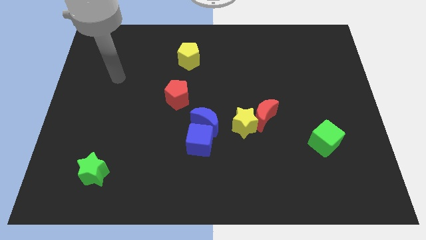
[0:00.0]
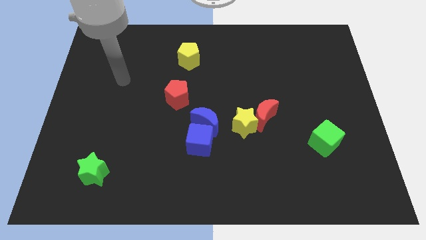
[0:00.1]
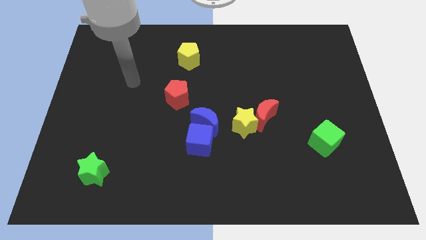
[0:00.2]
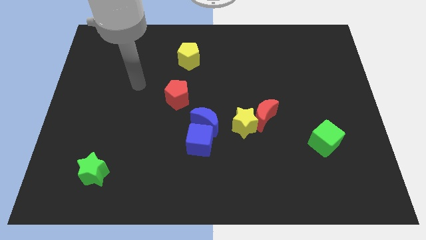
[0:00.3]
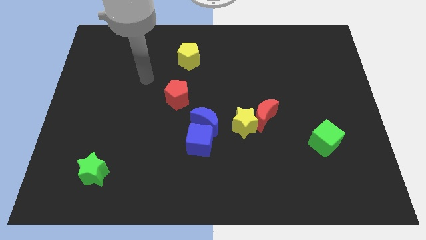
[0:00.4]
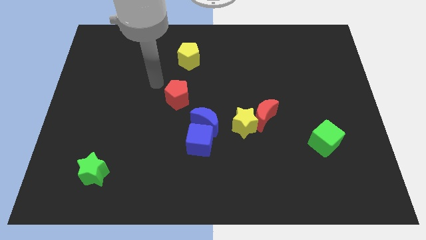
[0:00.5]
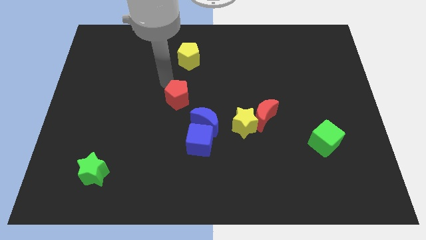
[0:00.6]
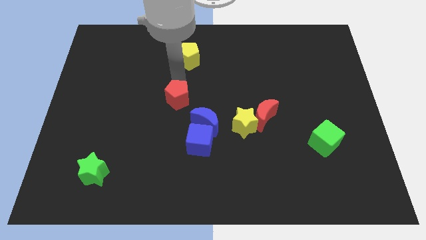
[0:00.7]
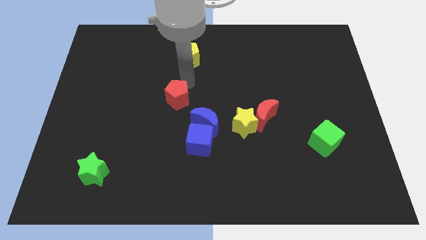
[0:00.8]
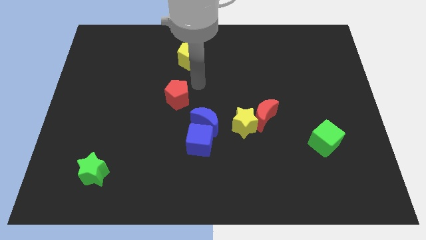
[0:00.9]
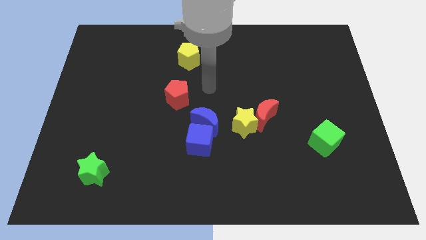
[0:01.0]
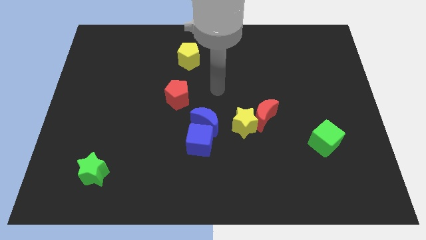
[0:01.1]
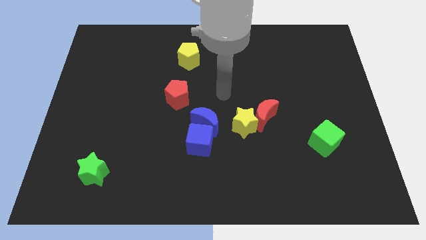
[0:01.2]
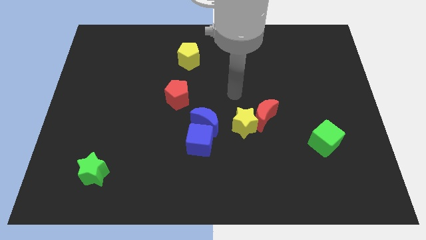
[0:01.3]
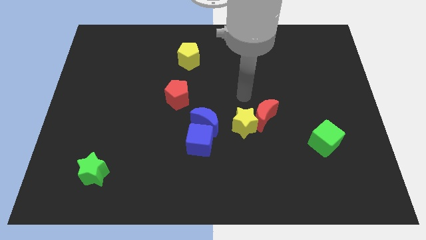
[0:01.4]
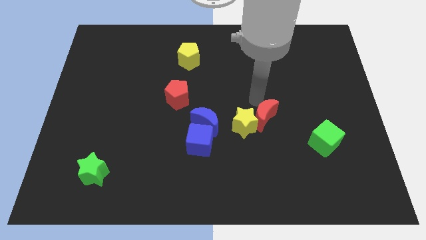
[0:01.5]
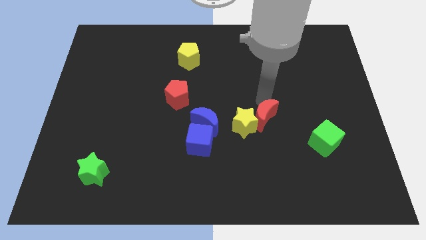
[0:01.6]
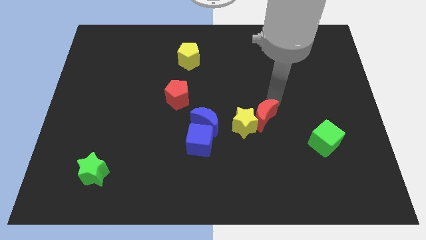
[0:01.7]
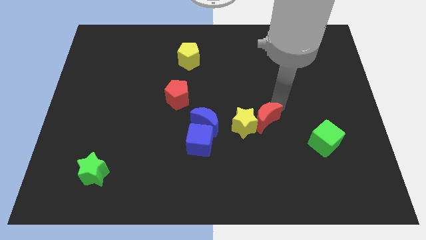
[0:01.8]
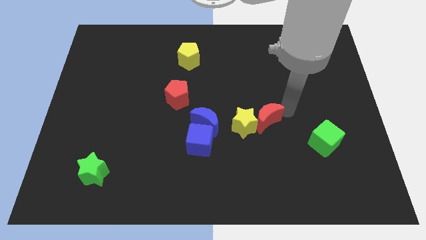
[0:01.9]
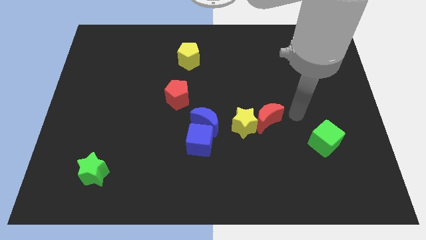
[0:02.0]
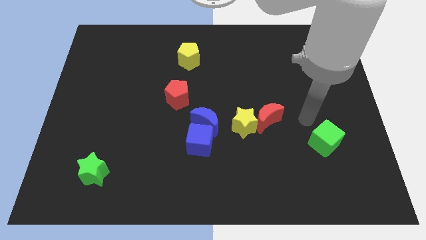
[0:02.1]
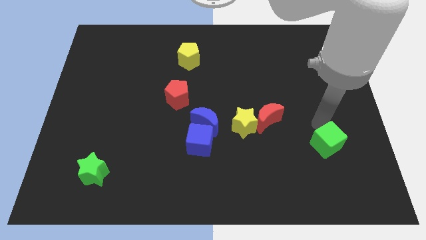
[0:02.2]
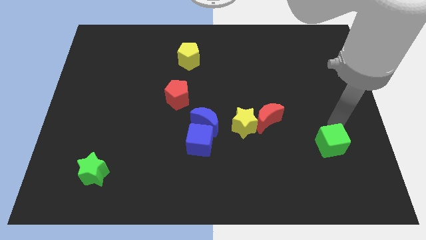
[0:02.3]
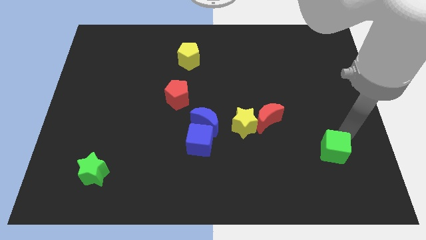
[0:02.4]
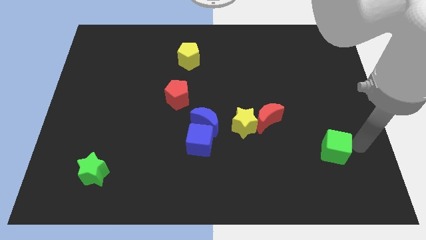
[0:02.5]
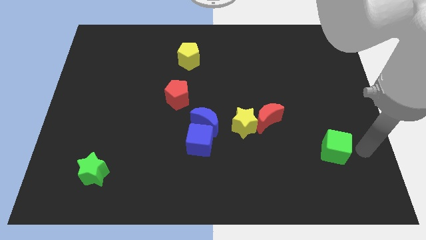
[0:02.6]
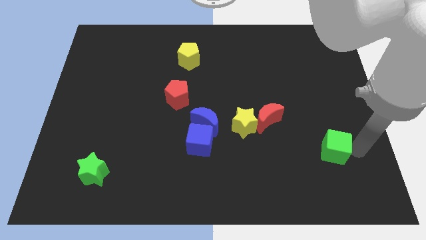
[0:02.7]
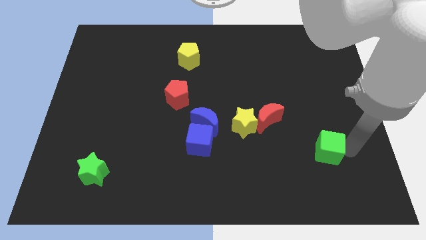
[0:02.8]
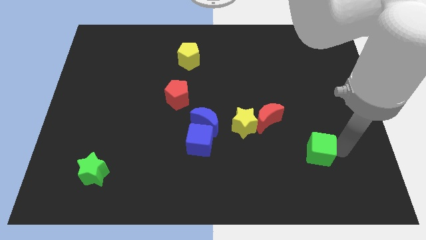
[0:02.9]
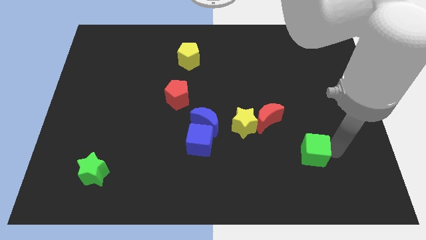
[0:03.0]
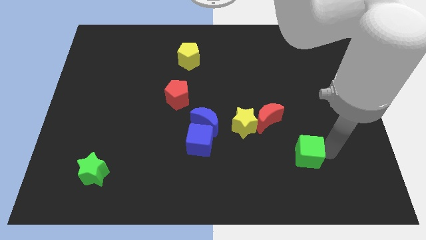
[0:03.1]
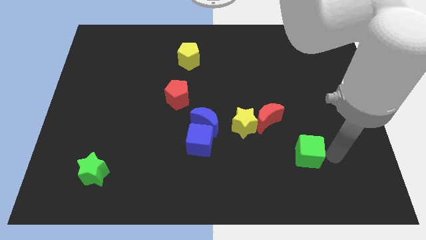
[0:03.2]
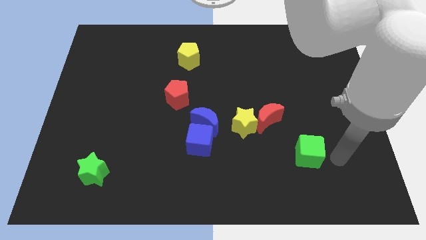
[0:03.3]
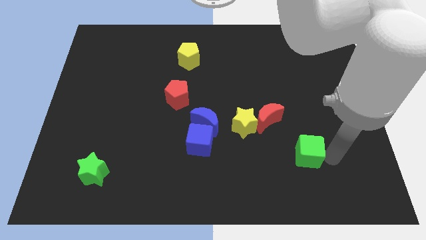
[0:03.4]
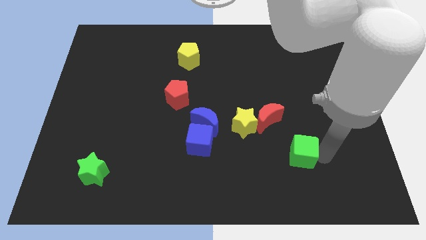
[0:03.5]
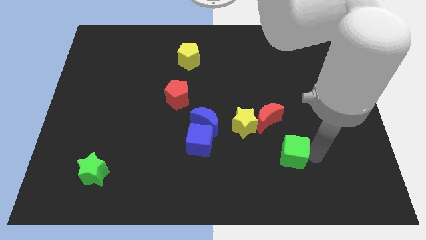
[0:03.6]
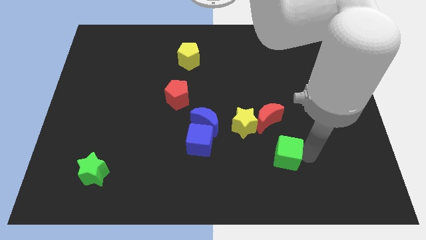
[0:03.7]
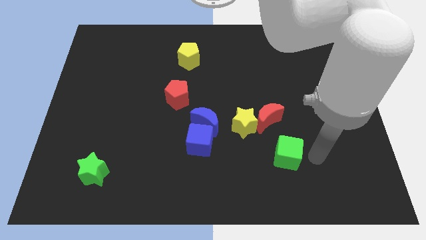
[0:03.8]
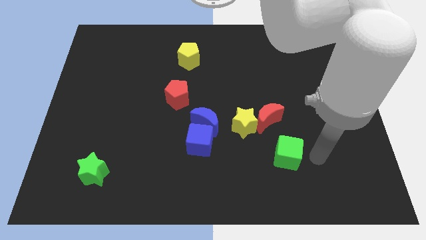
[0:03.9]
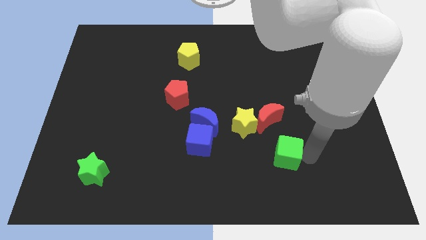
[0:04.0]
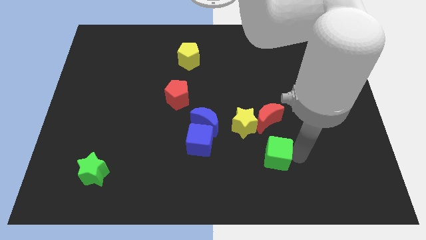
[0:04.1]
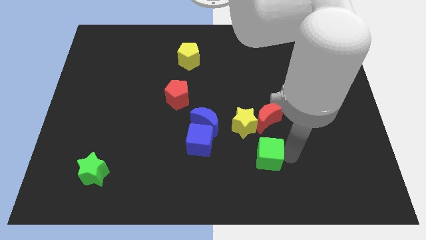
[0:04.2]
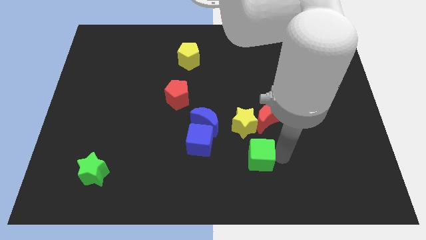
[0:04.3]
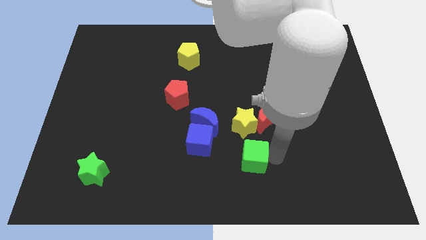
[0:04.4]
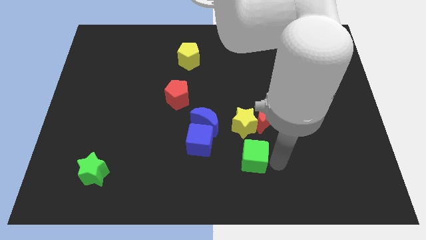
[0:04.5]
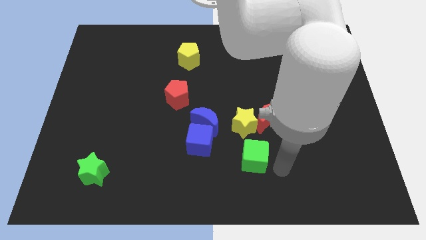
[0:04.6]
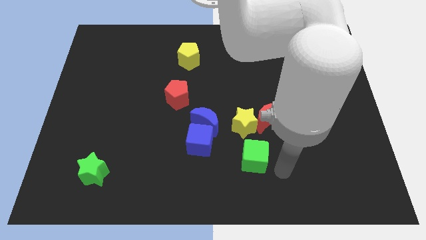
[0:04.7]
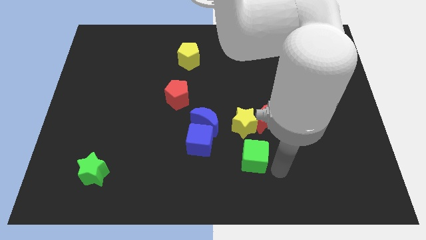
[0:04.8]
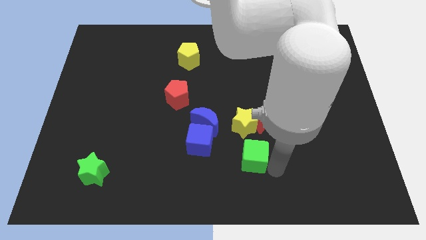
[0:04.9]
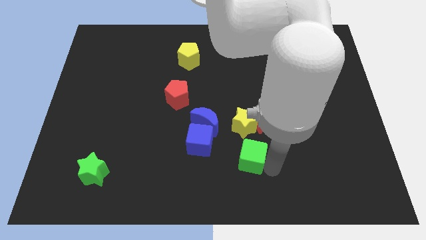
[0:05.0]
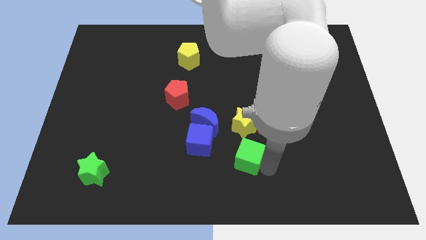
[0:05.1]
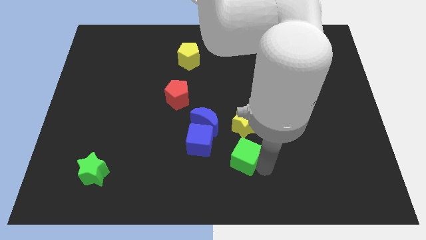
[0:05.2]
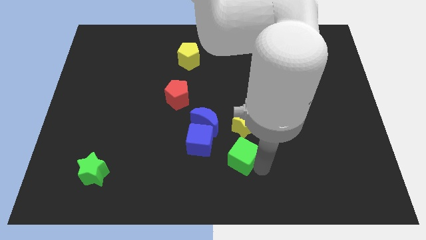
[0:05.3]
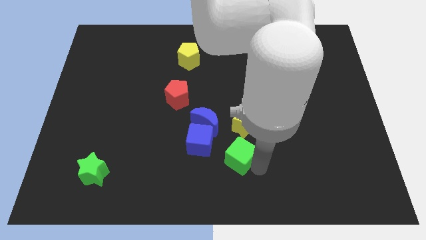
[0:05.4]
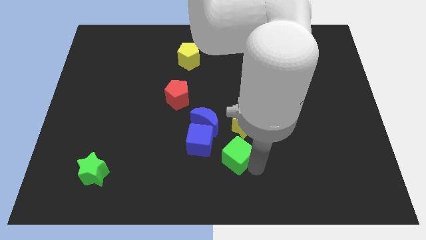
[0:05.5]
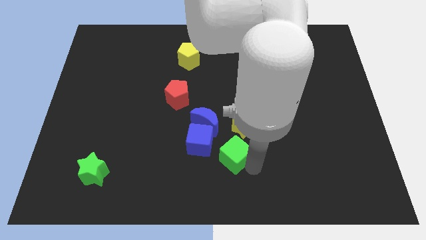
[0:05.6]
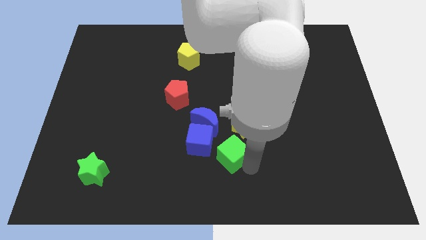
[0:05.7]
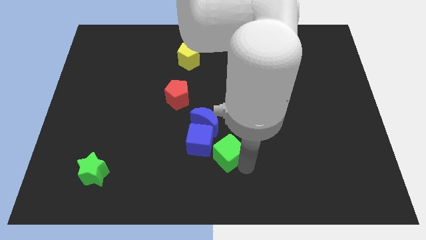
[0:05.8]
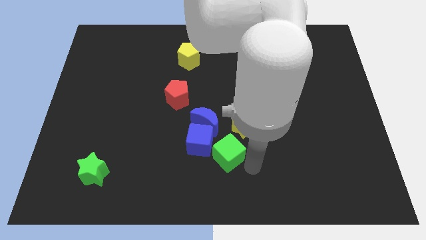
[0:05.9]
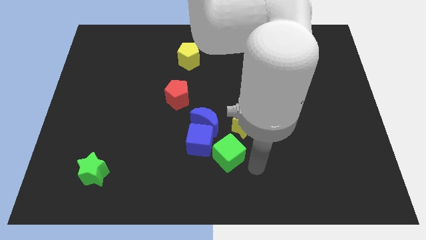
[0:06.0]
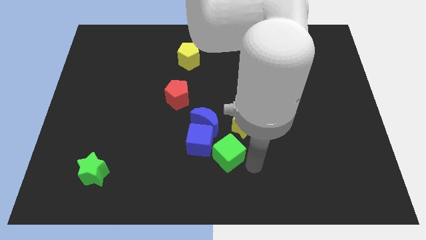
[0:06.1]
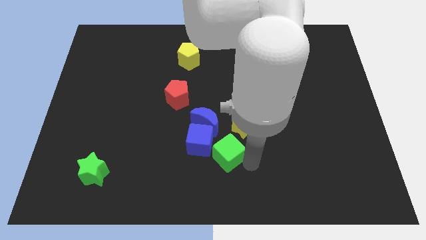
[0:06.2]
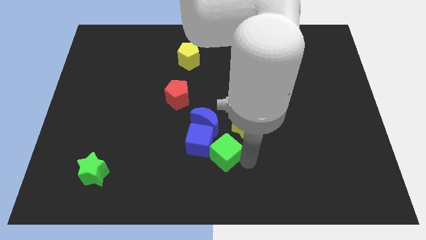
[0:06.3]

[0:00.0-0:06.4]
put the green cube towards the blue cube
